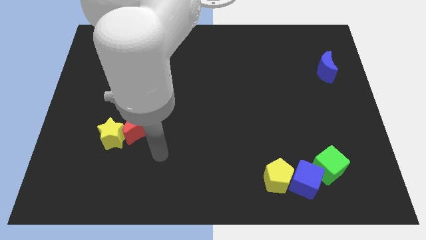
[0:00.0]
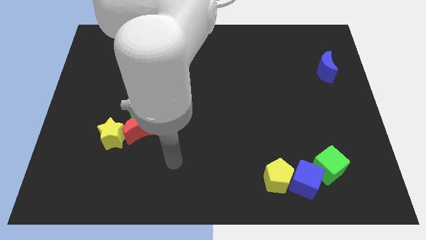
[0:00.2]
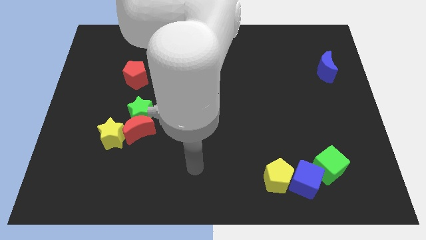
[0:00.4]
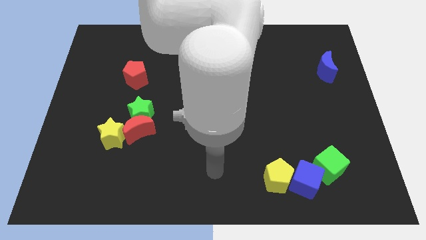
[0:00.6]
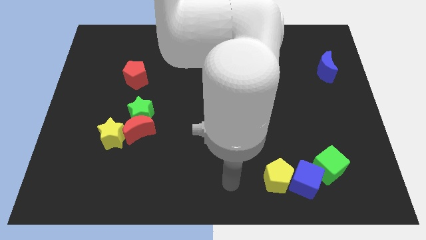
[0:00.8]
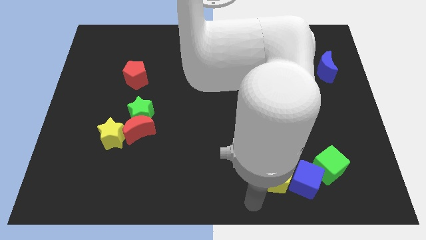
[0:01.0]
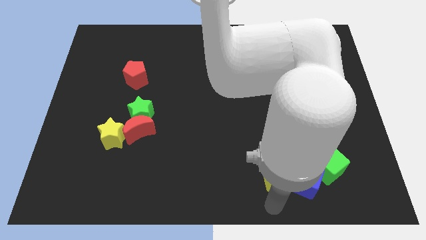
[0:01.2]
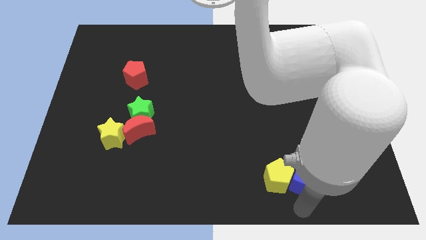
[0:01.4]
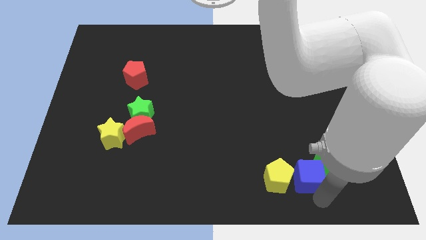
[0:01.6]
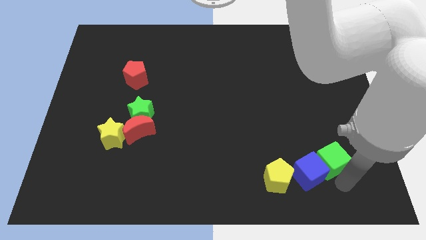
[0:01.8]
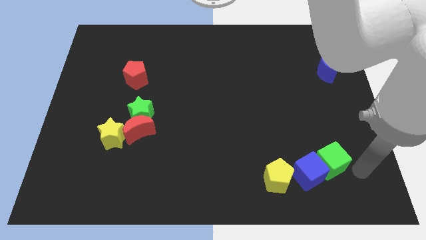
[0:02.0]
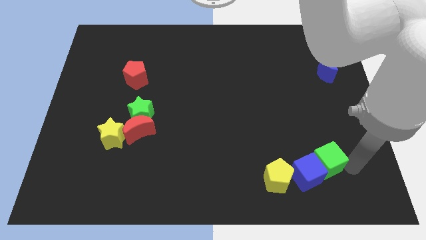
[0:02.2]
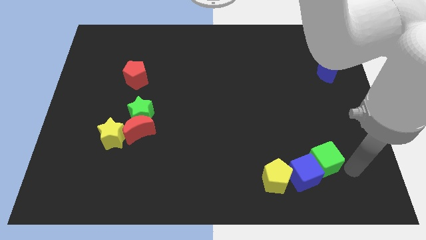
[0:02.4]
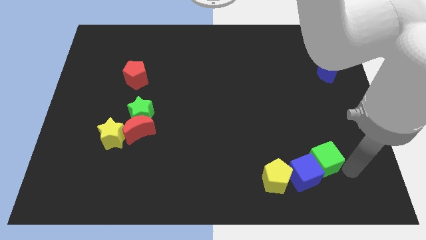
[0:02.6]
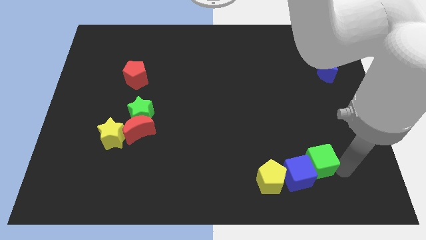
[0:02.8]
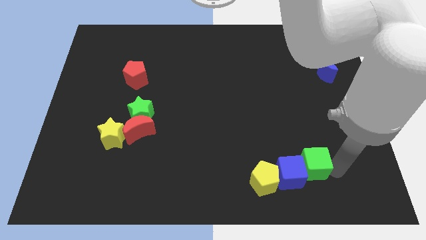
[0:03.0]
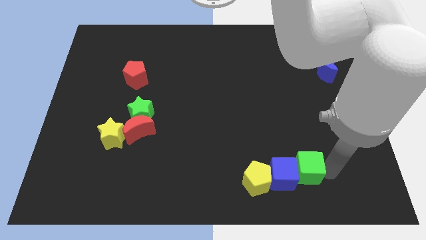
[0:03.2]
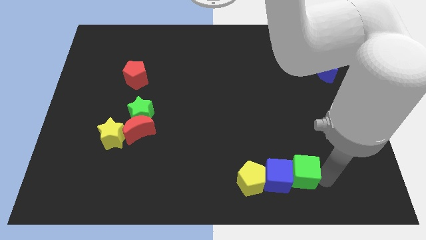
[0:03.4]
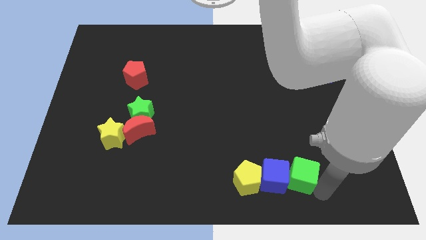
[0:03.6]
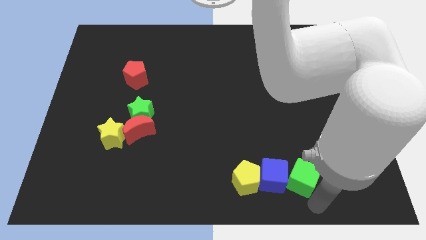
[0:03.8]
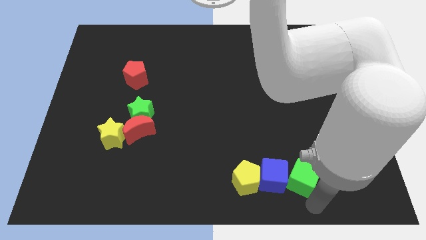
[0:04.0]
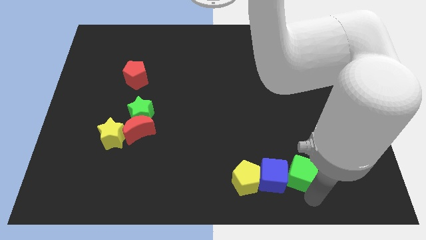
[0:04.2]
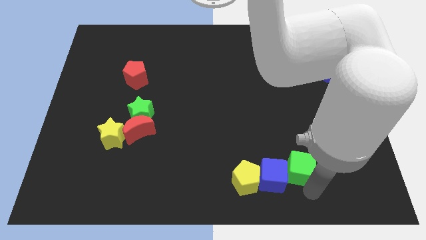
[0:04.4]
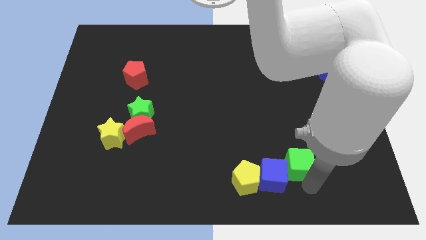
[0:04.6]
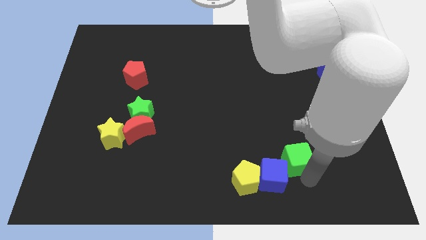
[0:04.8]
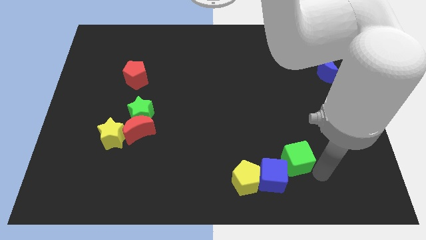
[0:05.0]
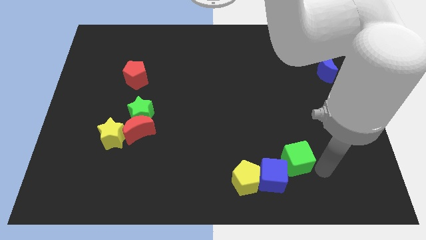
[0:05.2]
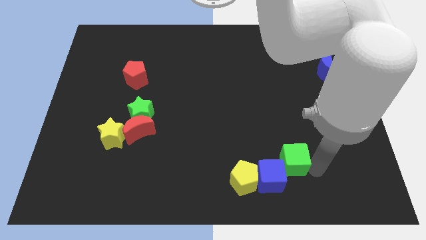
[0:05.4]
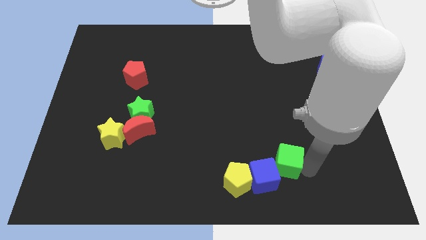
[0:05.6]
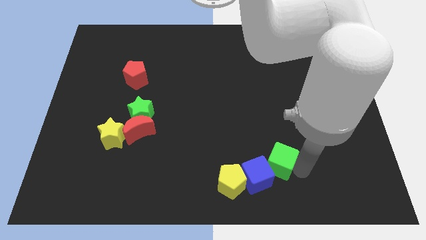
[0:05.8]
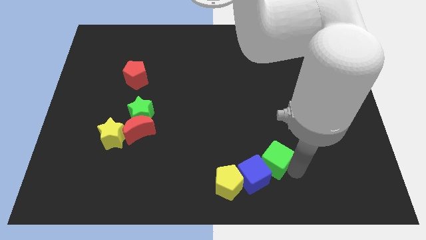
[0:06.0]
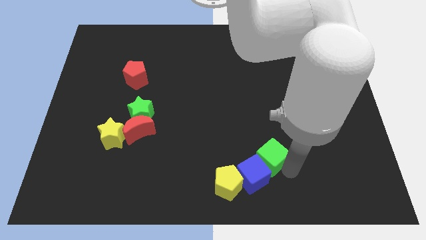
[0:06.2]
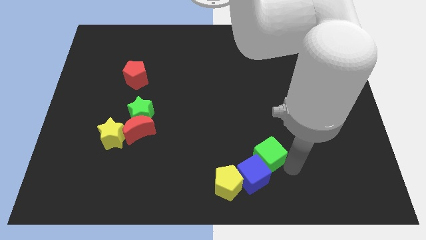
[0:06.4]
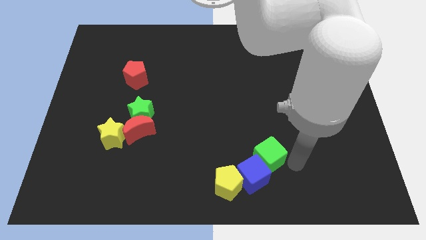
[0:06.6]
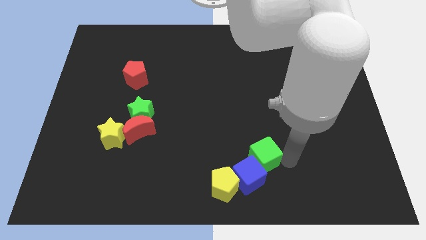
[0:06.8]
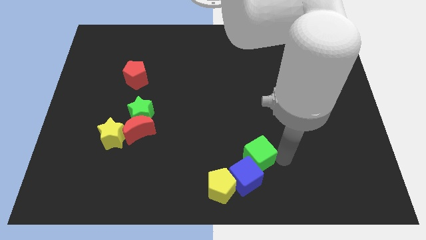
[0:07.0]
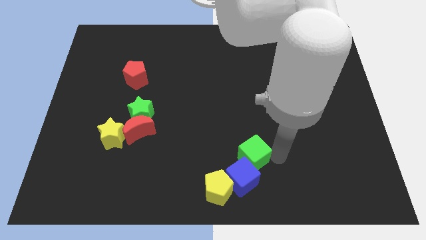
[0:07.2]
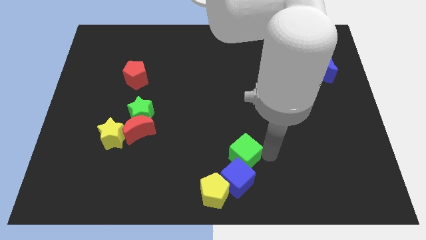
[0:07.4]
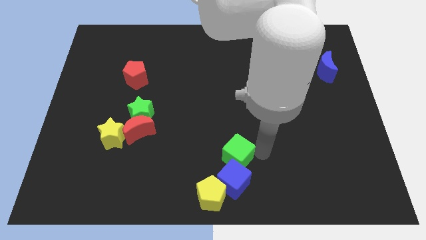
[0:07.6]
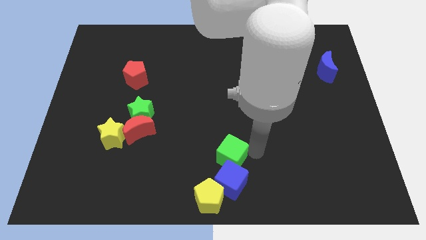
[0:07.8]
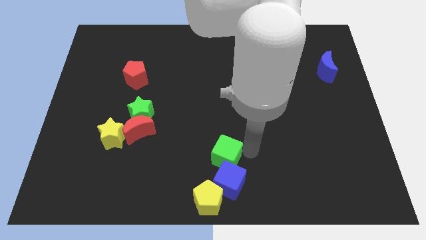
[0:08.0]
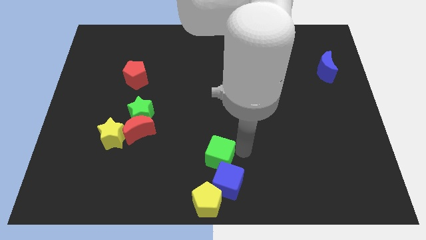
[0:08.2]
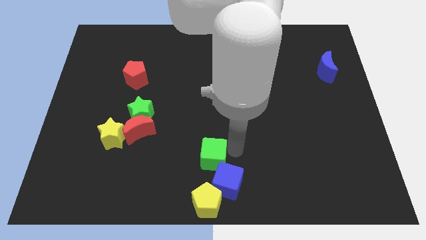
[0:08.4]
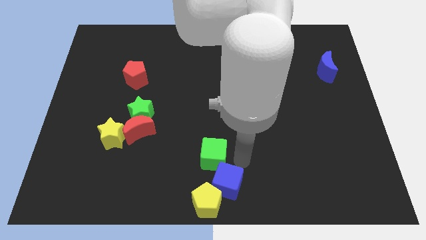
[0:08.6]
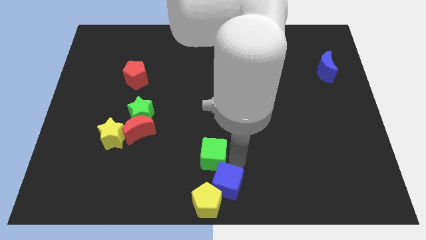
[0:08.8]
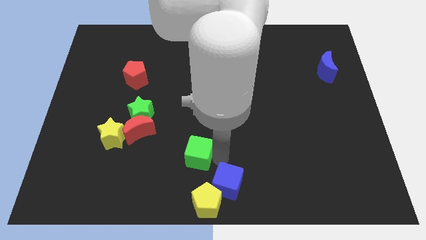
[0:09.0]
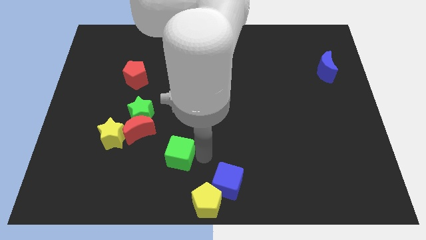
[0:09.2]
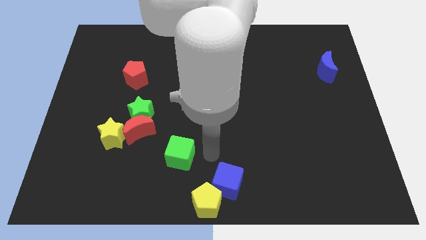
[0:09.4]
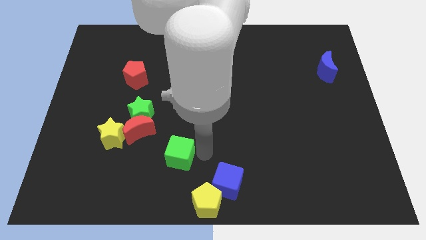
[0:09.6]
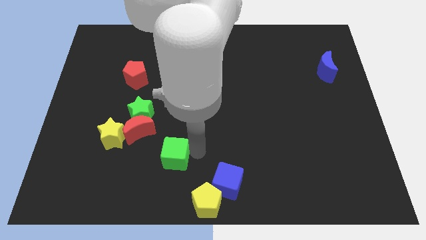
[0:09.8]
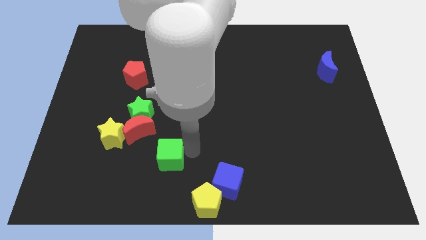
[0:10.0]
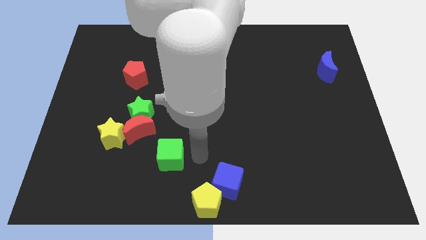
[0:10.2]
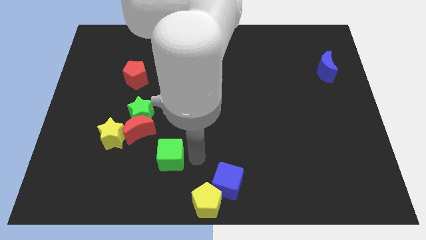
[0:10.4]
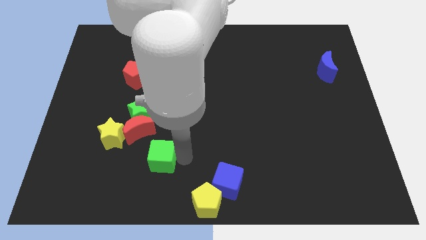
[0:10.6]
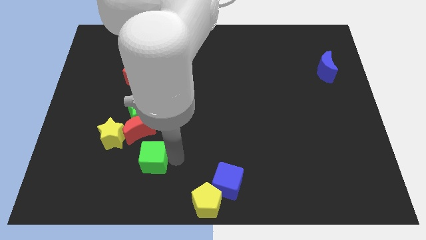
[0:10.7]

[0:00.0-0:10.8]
move the green cube to the bottom right side of the yellow star

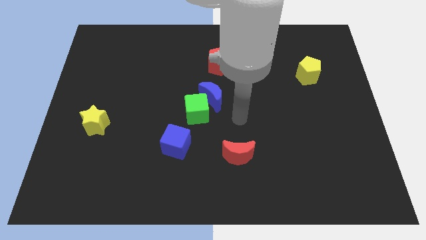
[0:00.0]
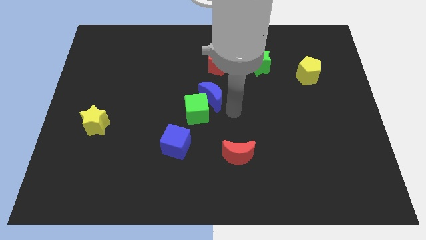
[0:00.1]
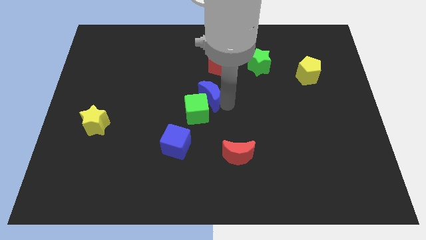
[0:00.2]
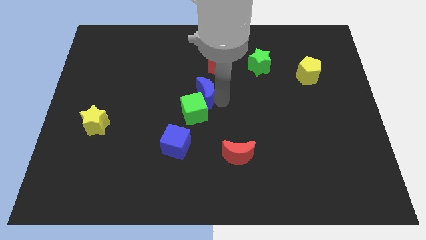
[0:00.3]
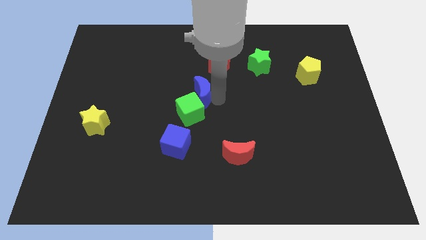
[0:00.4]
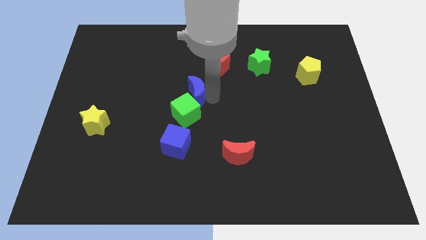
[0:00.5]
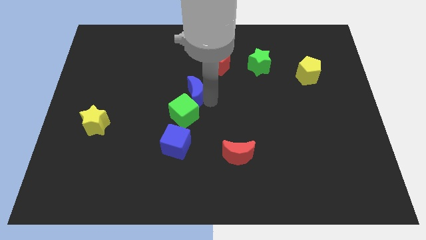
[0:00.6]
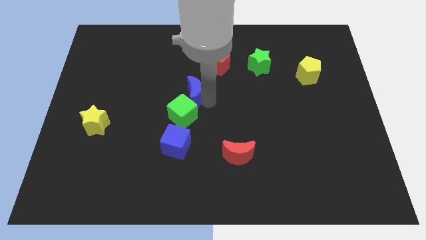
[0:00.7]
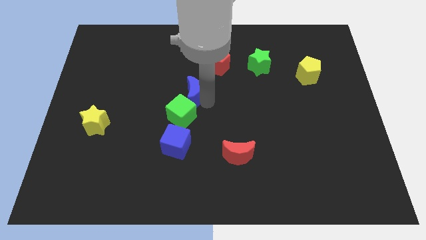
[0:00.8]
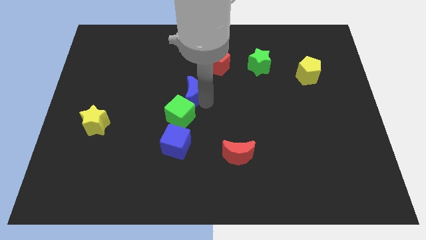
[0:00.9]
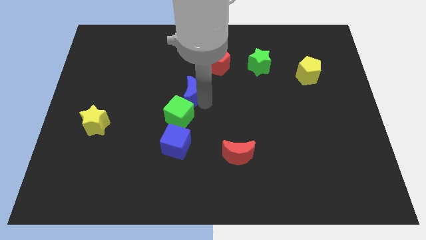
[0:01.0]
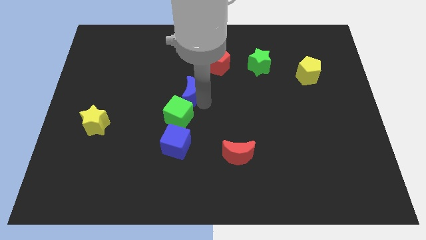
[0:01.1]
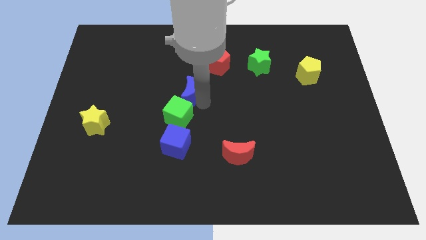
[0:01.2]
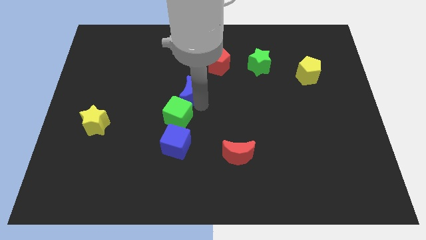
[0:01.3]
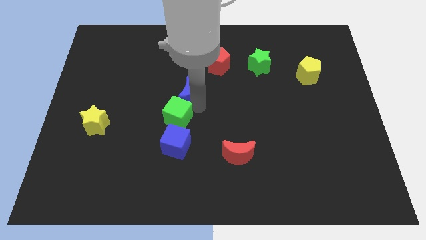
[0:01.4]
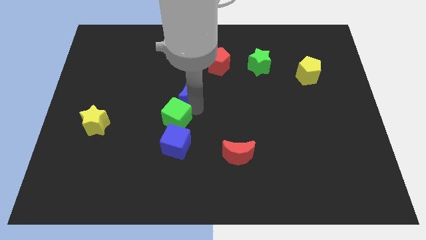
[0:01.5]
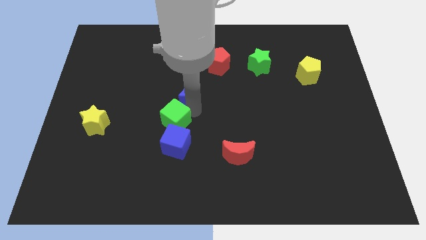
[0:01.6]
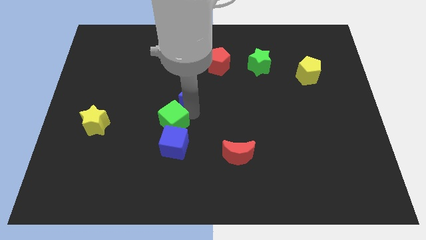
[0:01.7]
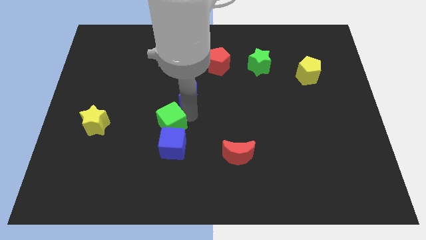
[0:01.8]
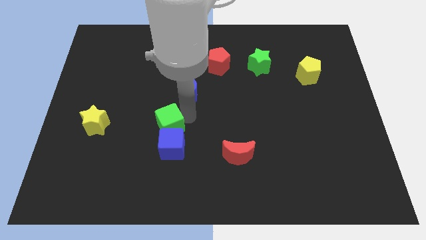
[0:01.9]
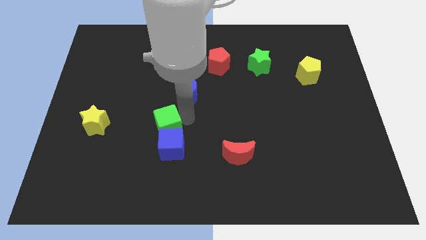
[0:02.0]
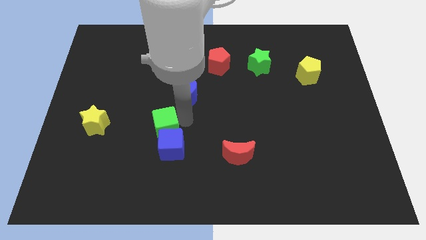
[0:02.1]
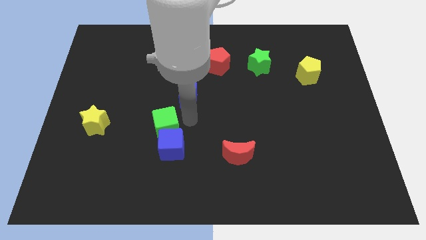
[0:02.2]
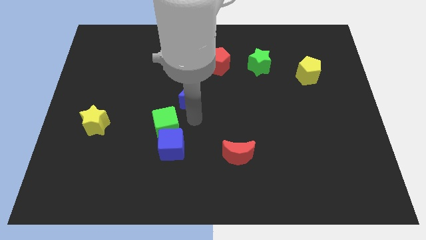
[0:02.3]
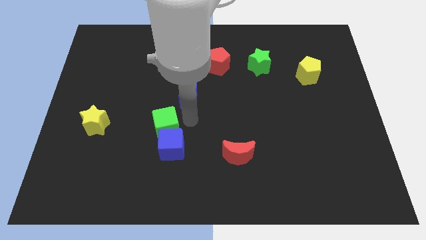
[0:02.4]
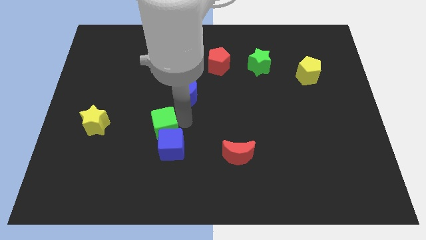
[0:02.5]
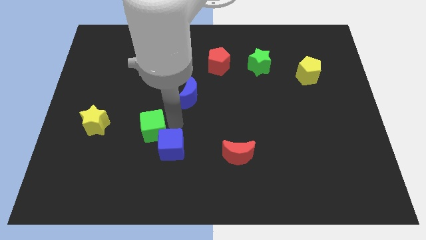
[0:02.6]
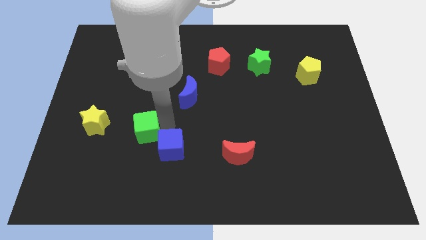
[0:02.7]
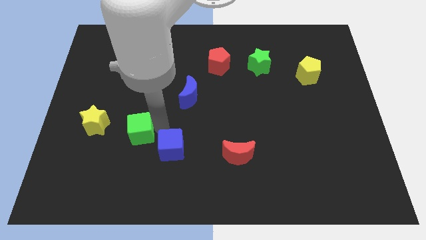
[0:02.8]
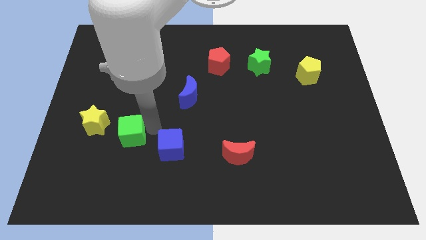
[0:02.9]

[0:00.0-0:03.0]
slide the green cube diagonally down and to the right of the yellow star
